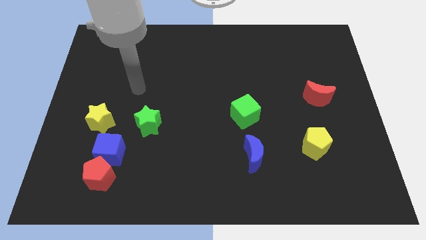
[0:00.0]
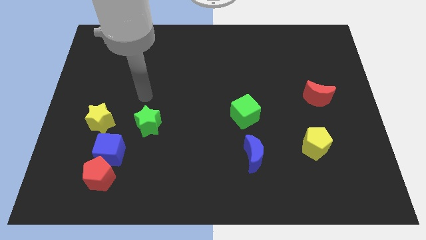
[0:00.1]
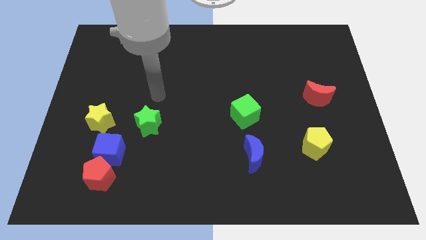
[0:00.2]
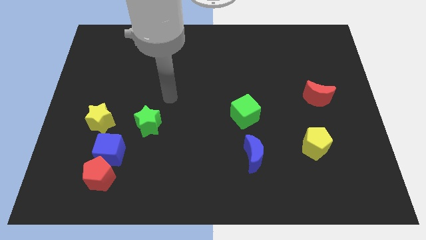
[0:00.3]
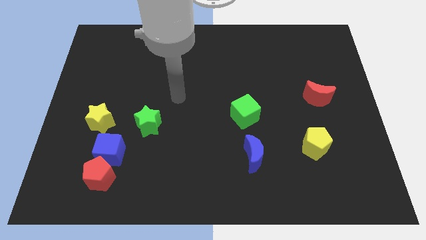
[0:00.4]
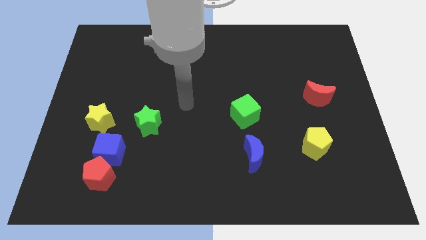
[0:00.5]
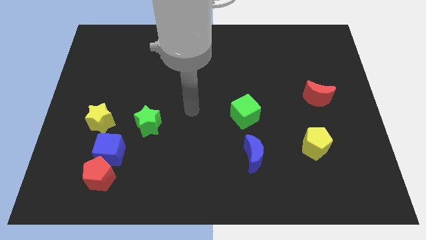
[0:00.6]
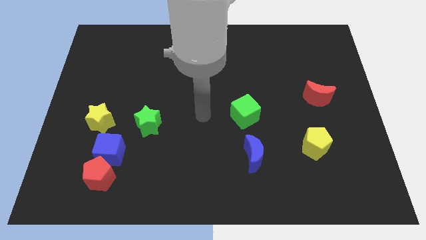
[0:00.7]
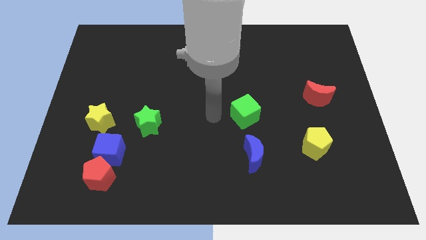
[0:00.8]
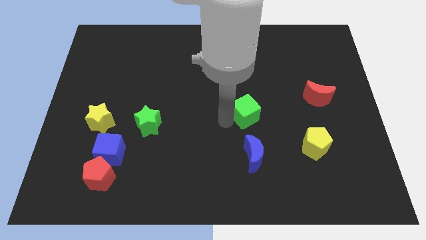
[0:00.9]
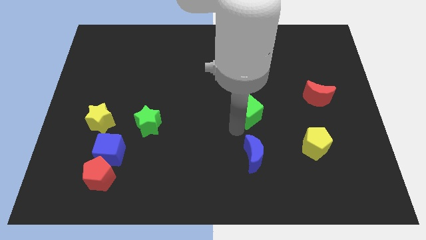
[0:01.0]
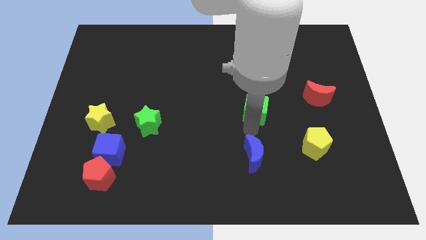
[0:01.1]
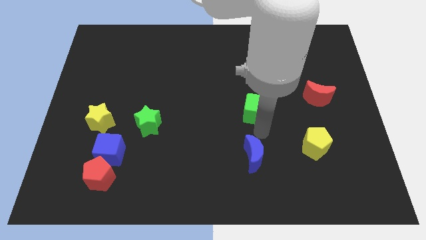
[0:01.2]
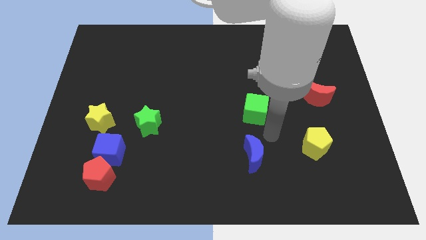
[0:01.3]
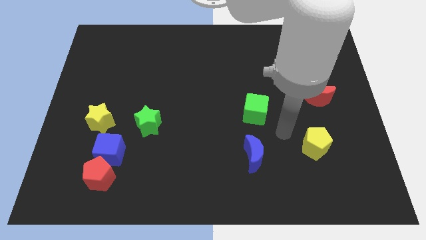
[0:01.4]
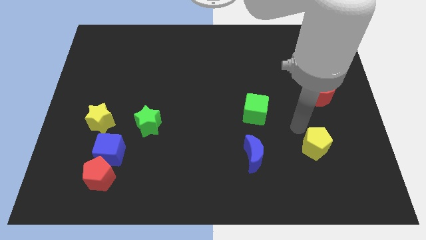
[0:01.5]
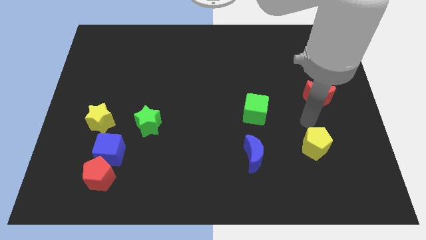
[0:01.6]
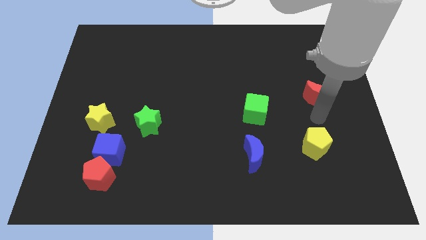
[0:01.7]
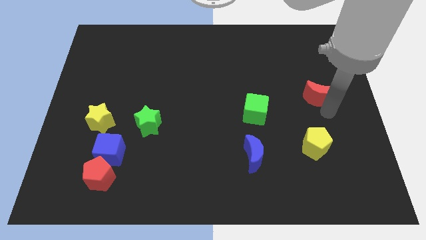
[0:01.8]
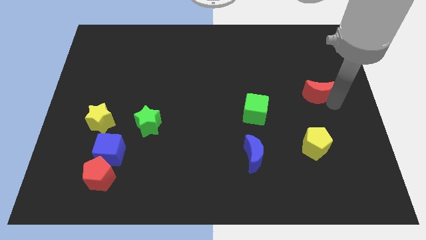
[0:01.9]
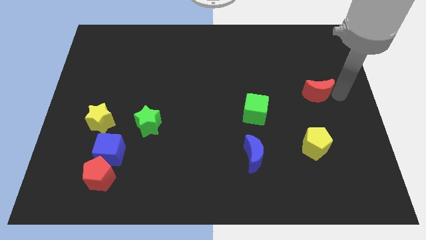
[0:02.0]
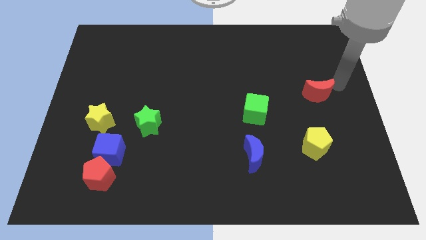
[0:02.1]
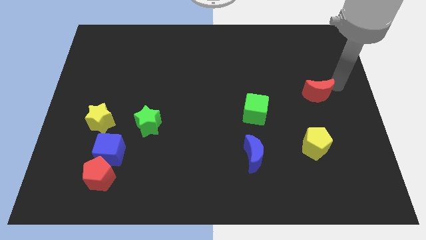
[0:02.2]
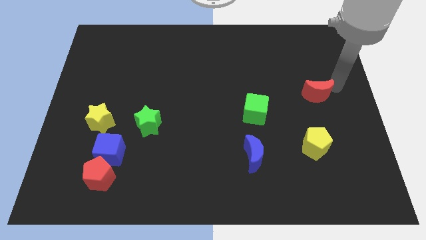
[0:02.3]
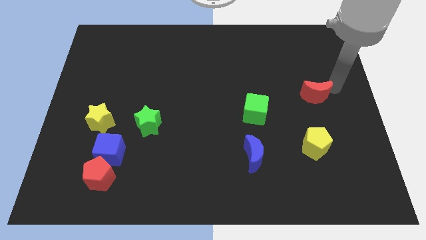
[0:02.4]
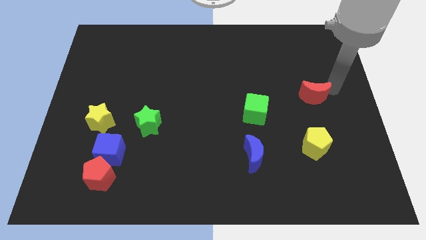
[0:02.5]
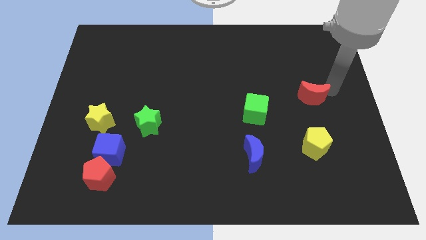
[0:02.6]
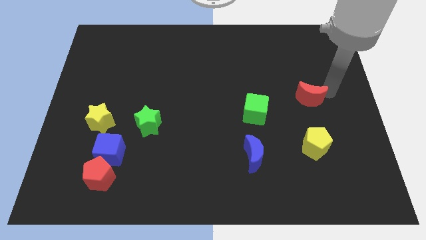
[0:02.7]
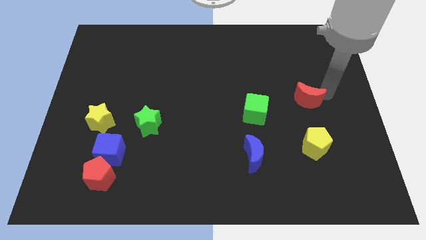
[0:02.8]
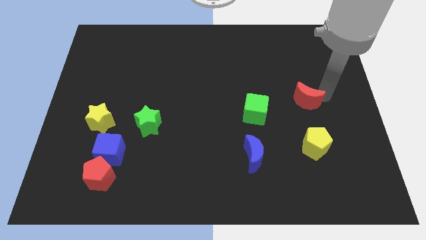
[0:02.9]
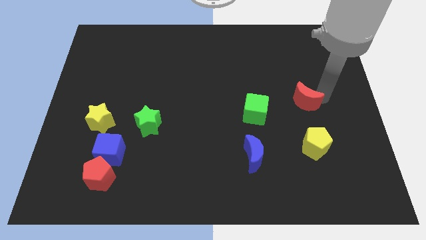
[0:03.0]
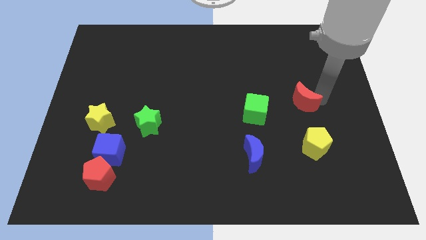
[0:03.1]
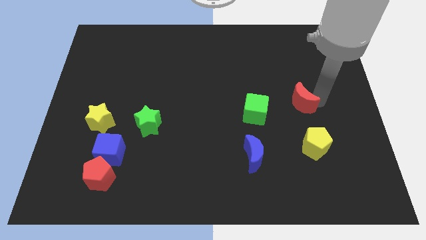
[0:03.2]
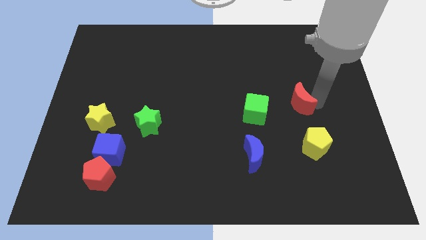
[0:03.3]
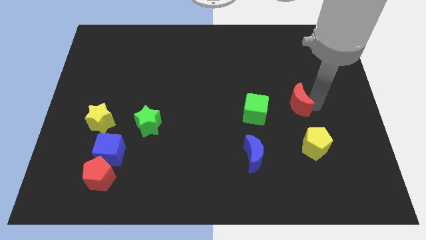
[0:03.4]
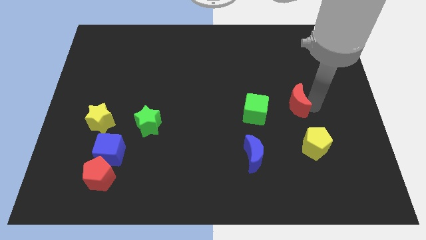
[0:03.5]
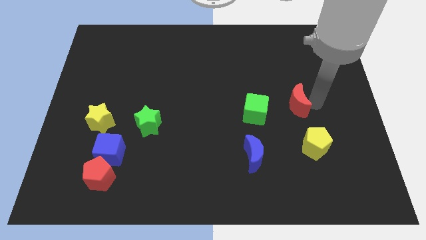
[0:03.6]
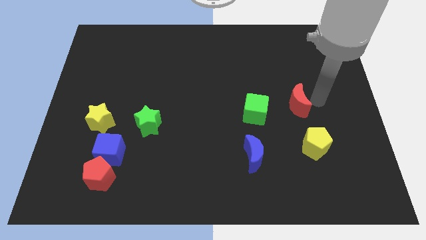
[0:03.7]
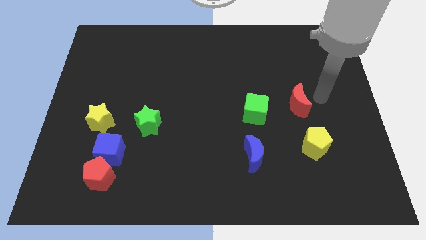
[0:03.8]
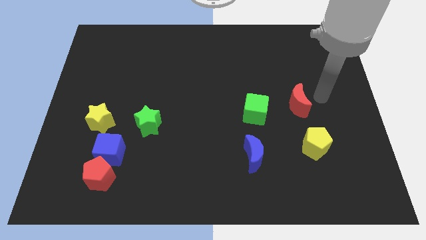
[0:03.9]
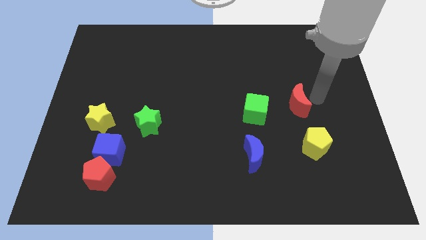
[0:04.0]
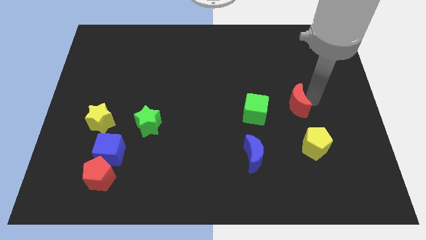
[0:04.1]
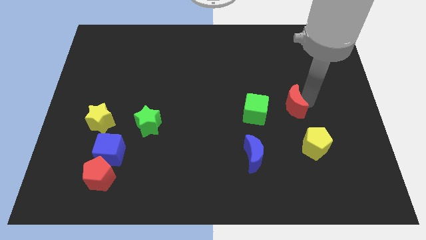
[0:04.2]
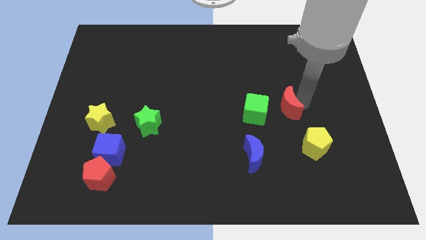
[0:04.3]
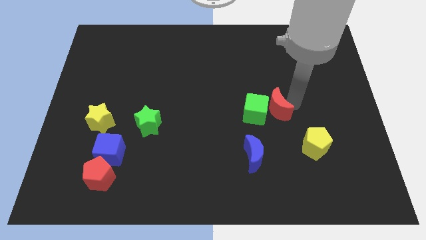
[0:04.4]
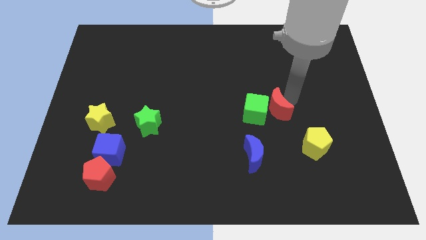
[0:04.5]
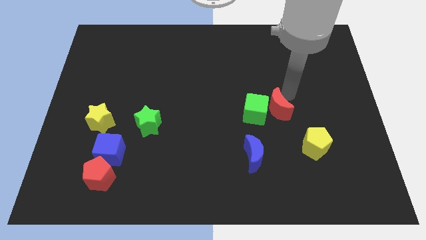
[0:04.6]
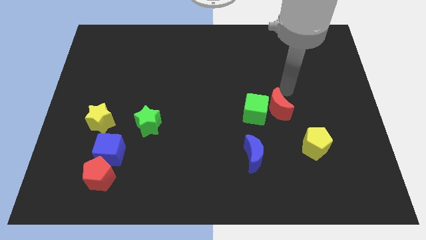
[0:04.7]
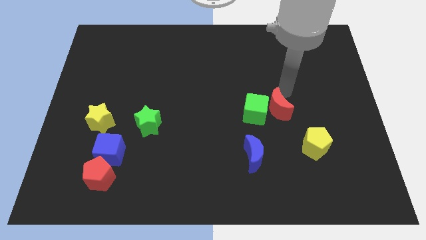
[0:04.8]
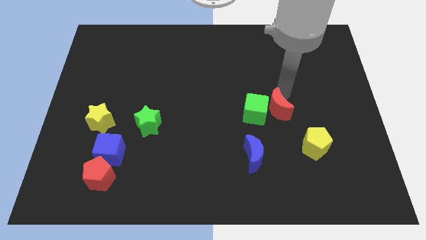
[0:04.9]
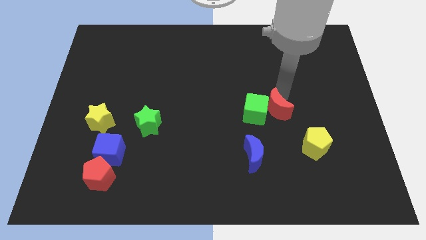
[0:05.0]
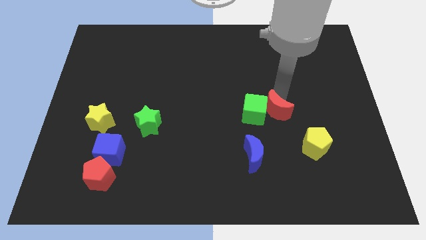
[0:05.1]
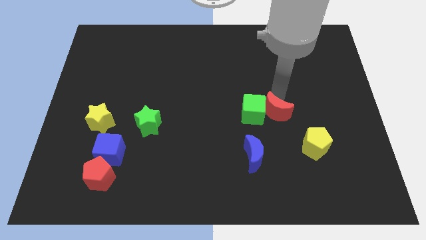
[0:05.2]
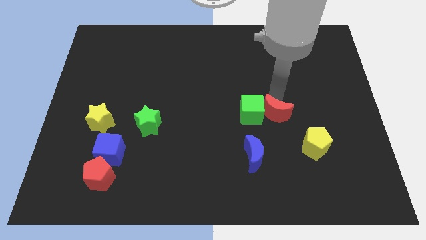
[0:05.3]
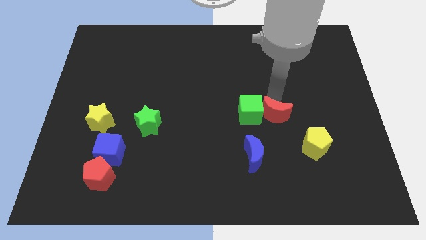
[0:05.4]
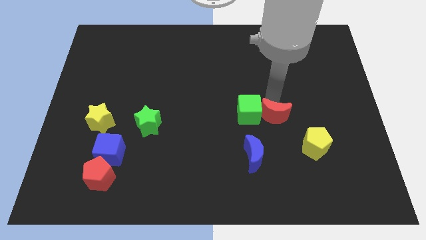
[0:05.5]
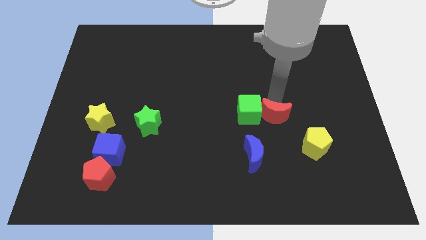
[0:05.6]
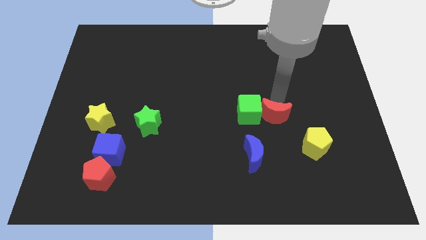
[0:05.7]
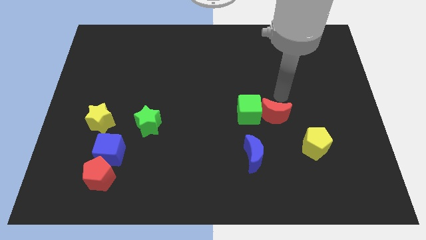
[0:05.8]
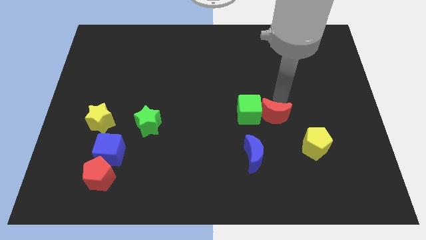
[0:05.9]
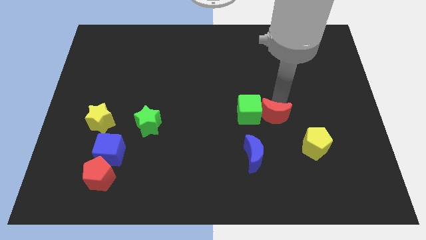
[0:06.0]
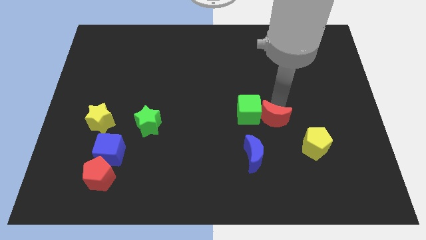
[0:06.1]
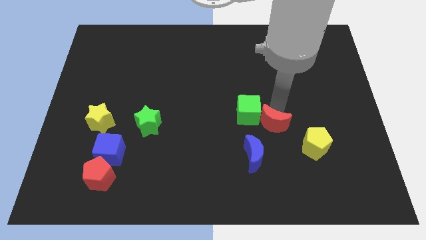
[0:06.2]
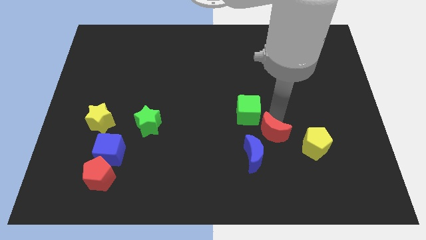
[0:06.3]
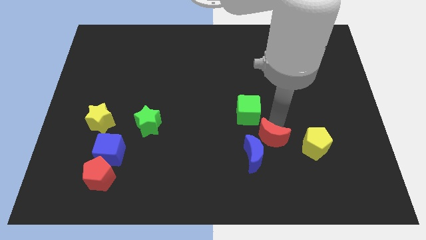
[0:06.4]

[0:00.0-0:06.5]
slide the red moon next to the blue moon
